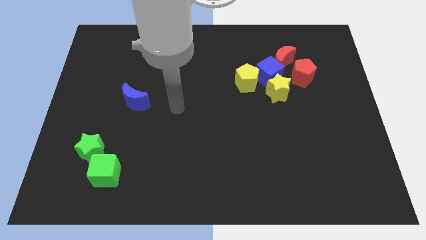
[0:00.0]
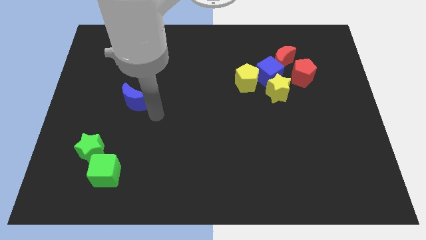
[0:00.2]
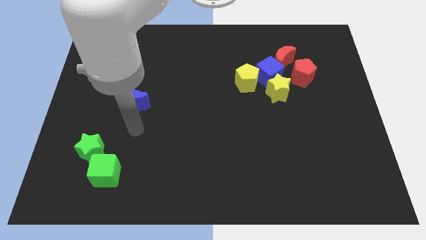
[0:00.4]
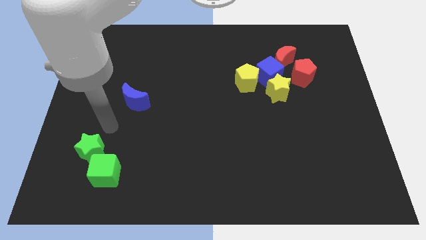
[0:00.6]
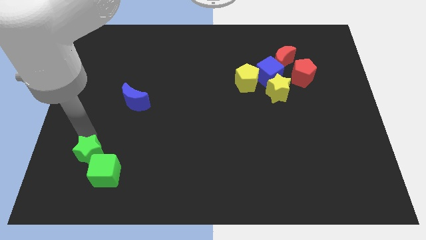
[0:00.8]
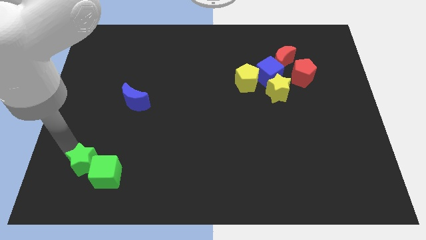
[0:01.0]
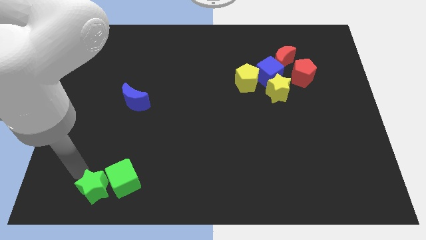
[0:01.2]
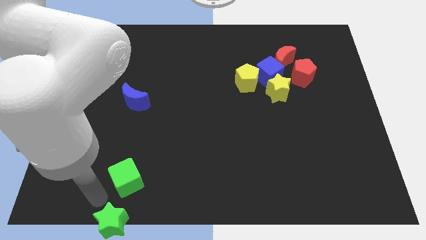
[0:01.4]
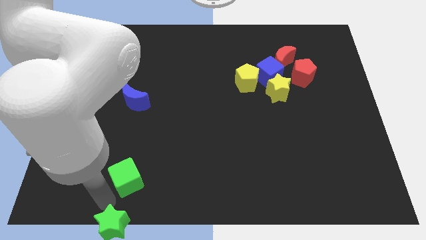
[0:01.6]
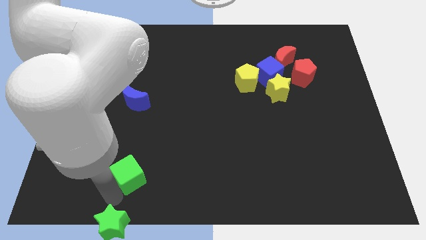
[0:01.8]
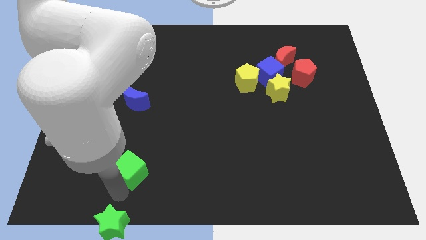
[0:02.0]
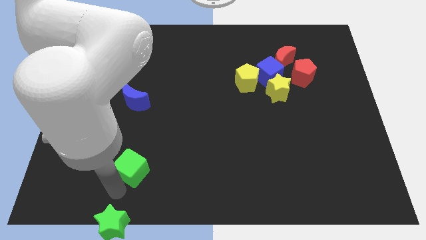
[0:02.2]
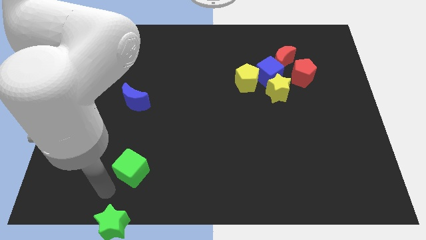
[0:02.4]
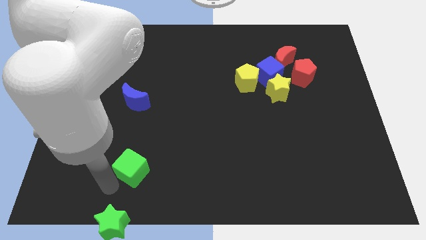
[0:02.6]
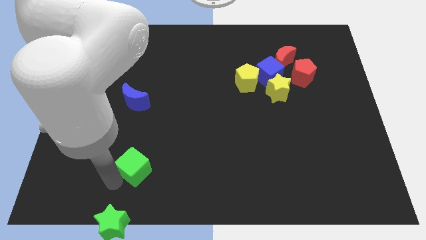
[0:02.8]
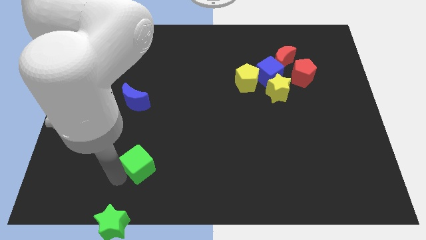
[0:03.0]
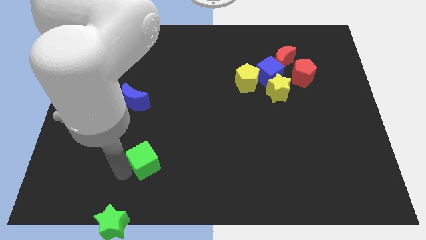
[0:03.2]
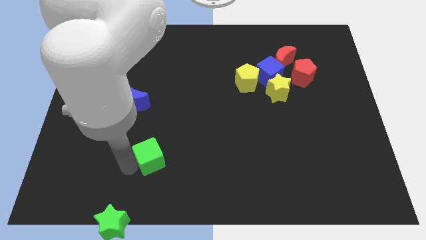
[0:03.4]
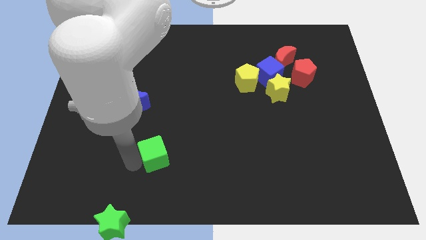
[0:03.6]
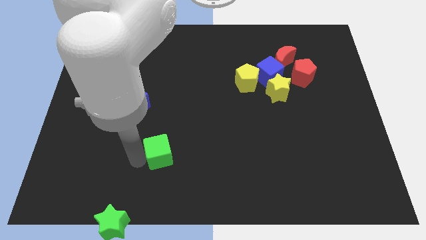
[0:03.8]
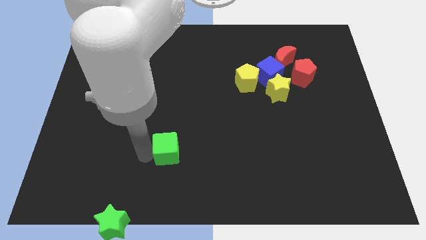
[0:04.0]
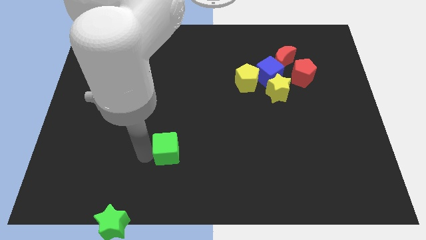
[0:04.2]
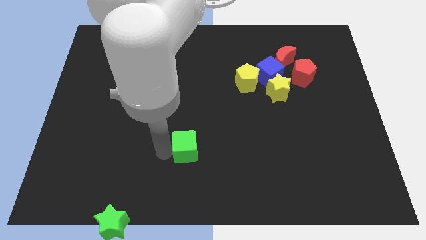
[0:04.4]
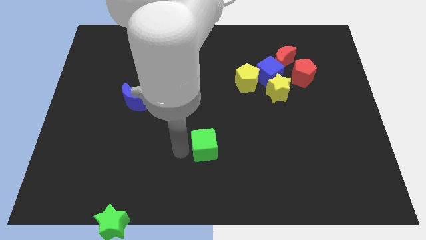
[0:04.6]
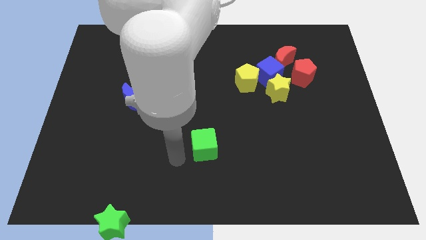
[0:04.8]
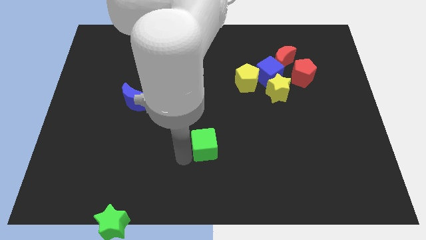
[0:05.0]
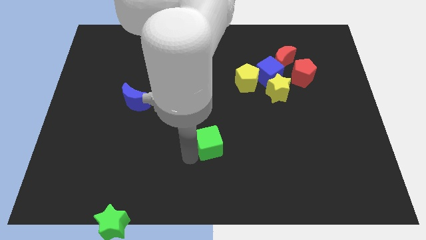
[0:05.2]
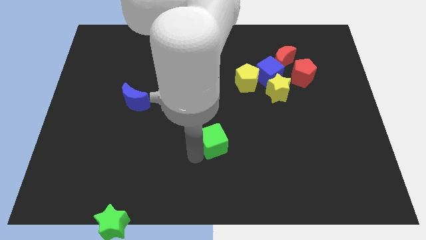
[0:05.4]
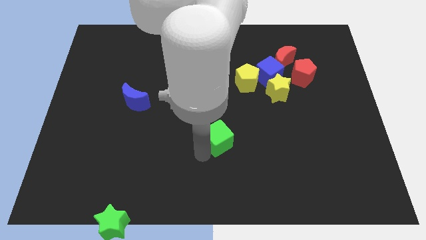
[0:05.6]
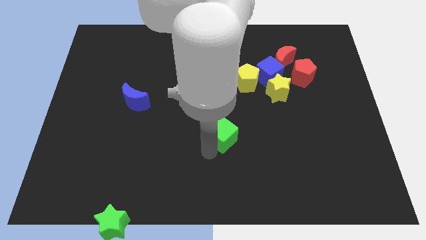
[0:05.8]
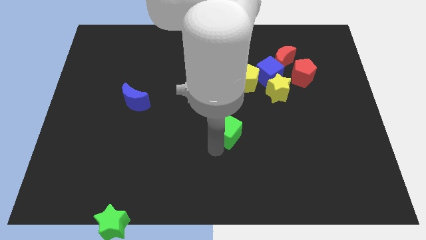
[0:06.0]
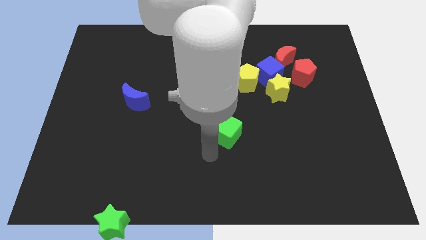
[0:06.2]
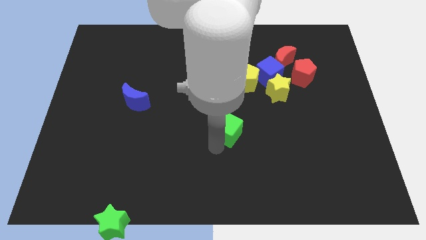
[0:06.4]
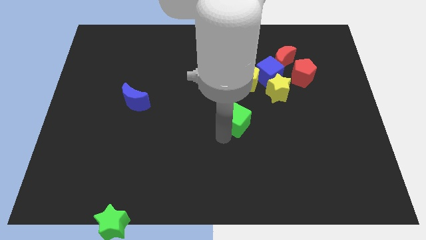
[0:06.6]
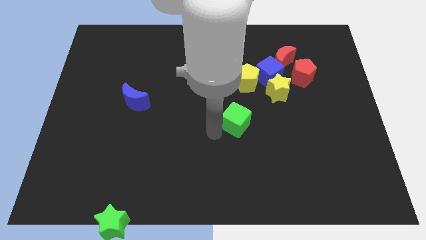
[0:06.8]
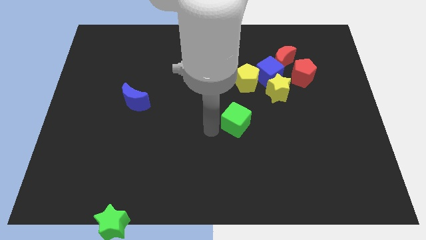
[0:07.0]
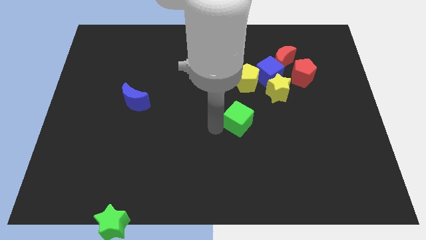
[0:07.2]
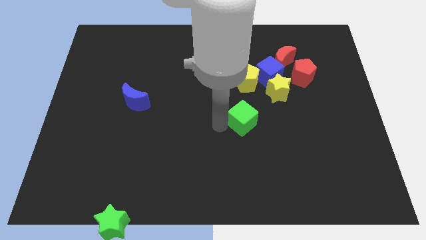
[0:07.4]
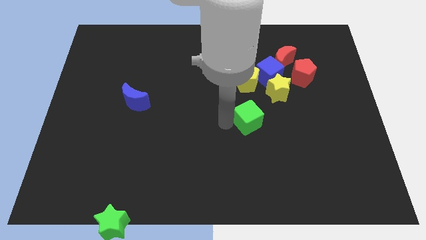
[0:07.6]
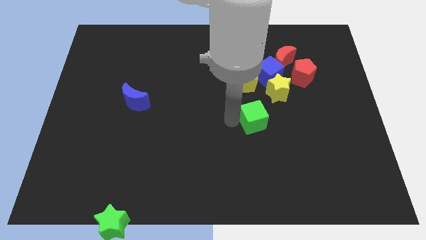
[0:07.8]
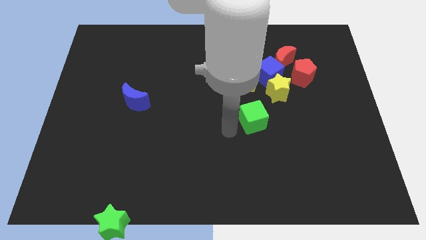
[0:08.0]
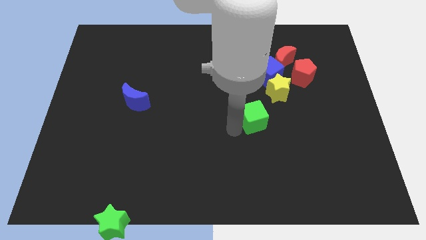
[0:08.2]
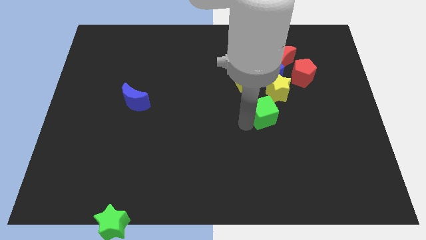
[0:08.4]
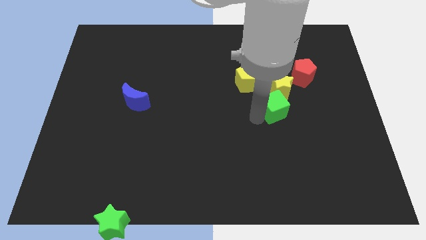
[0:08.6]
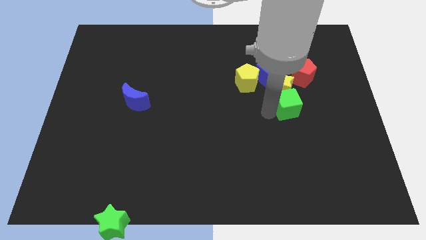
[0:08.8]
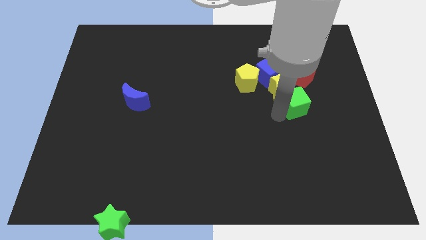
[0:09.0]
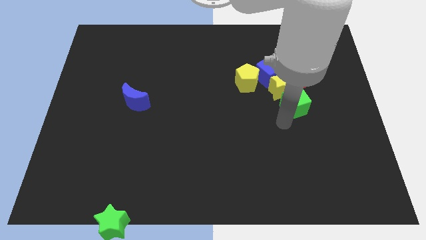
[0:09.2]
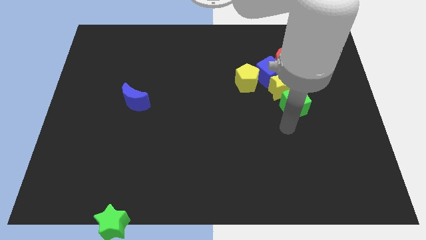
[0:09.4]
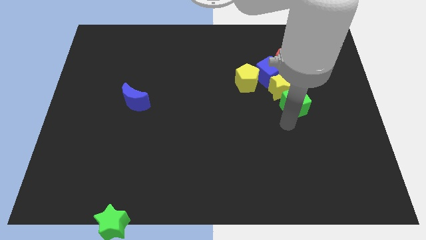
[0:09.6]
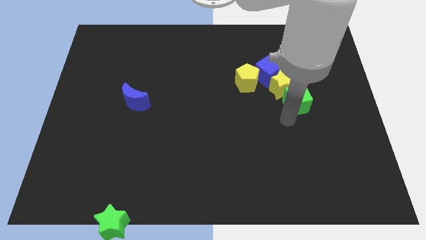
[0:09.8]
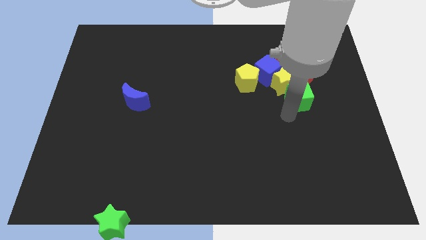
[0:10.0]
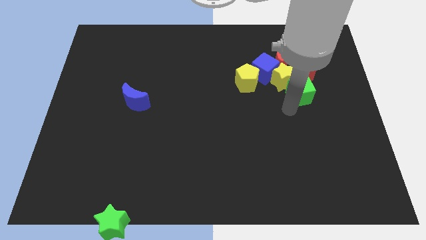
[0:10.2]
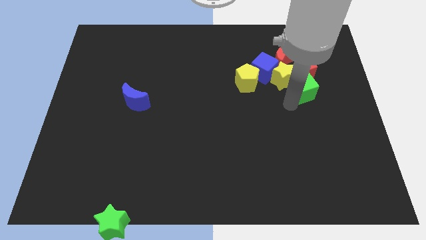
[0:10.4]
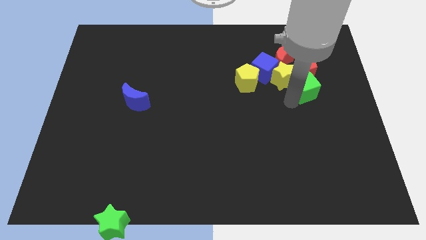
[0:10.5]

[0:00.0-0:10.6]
move the green cube towards the red pentagon
